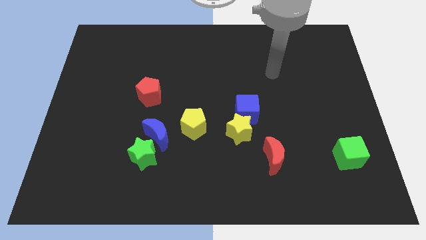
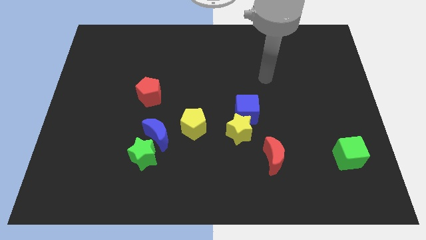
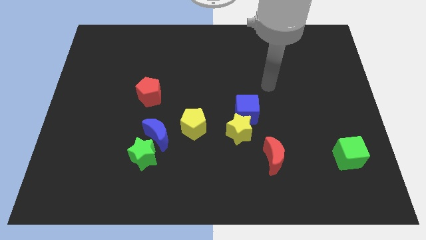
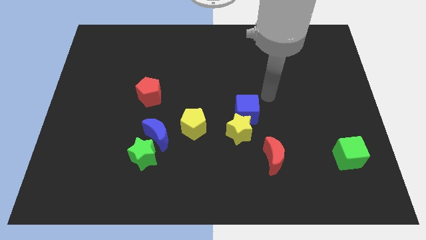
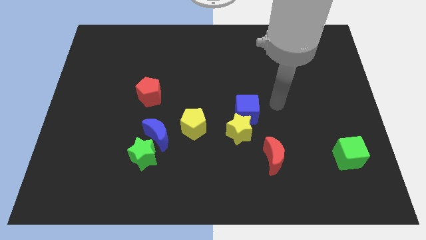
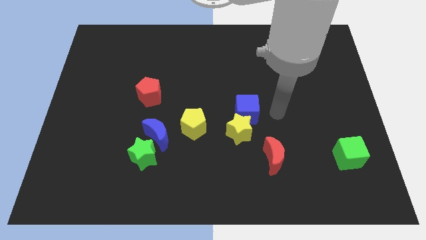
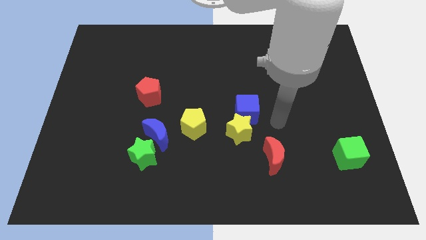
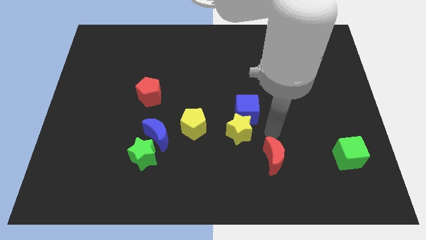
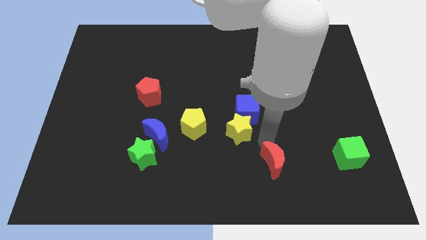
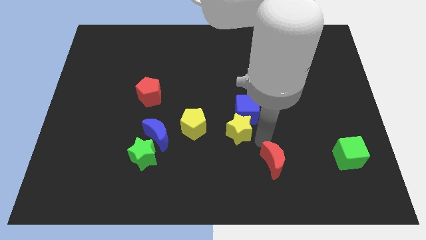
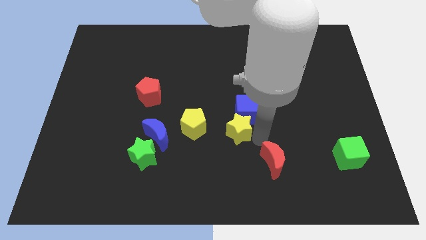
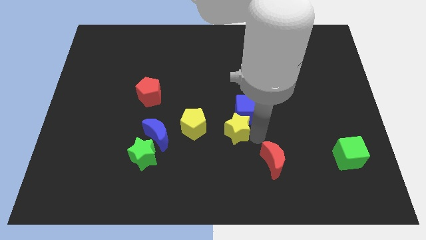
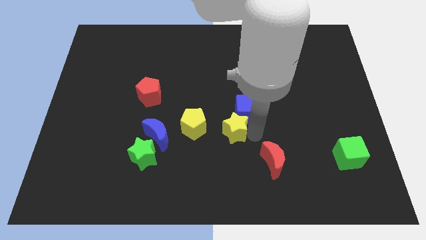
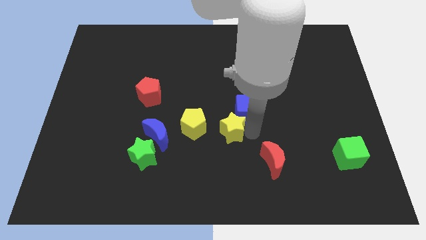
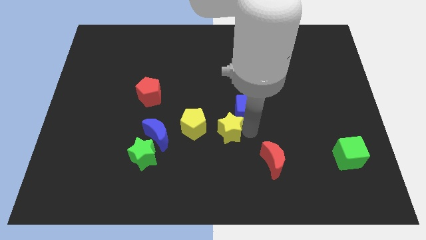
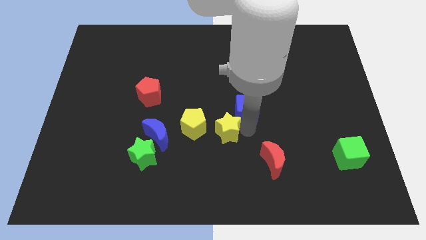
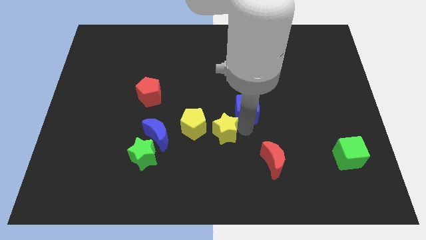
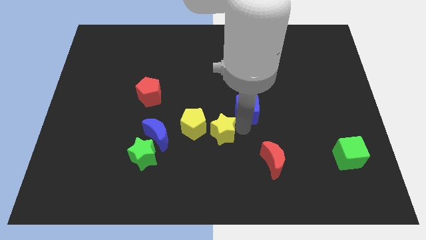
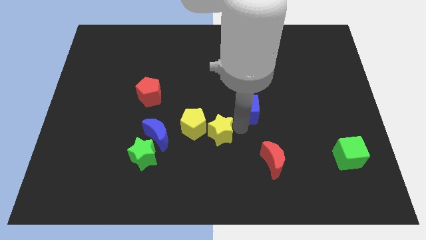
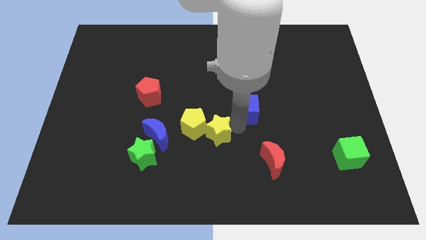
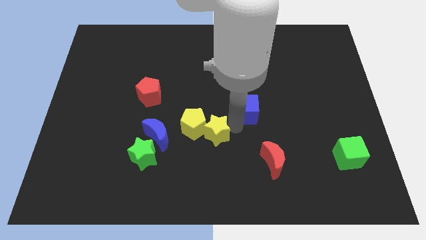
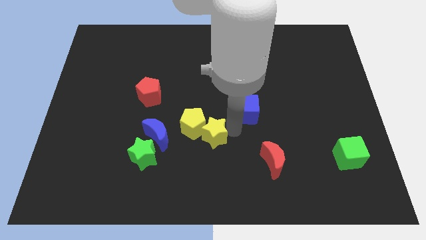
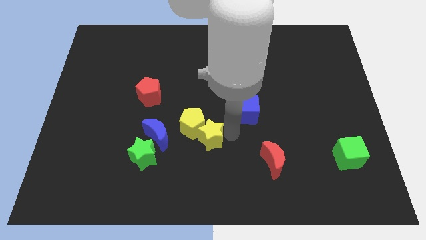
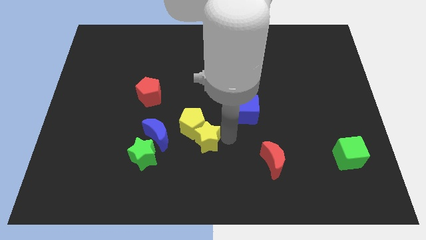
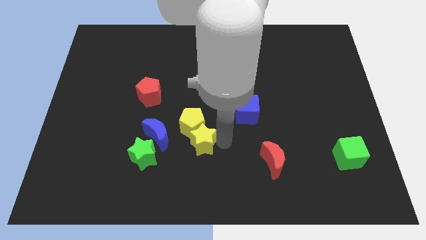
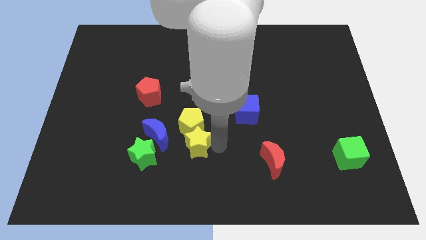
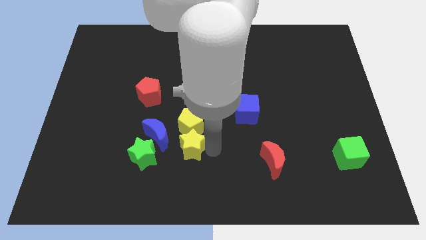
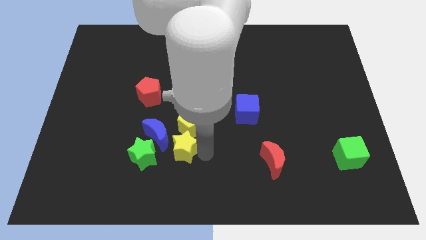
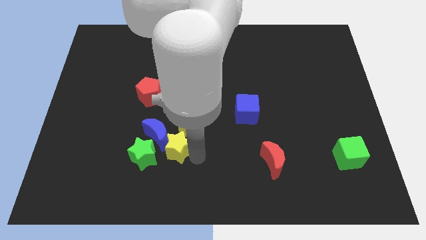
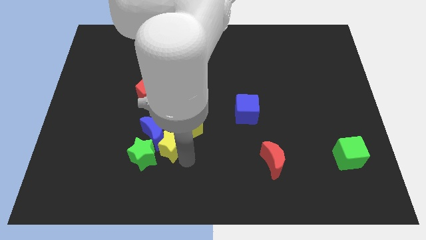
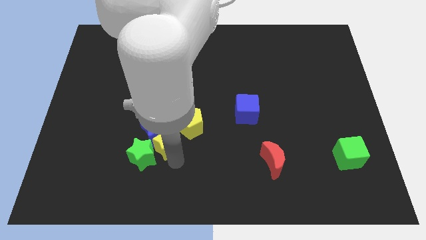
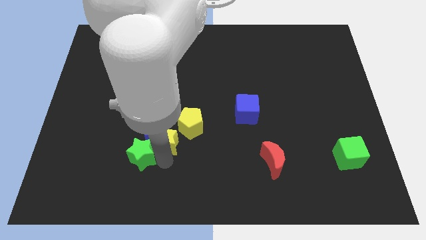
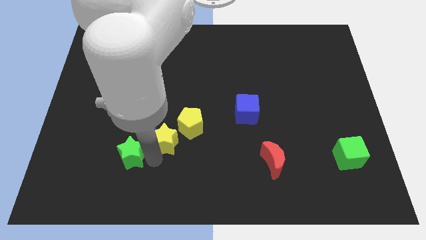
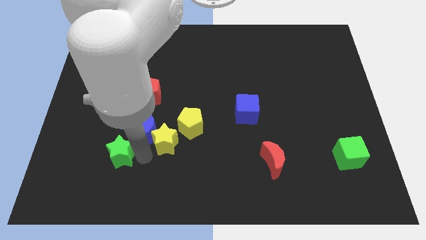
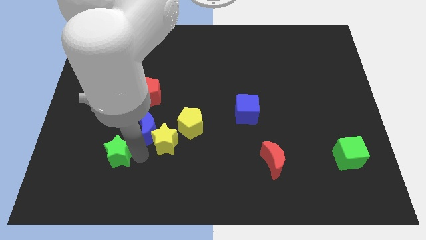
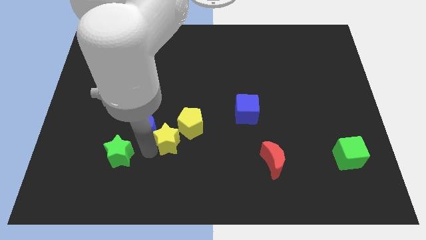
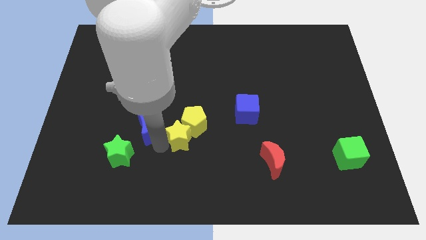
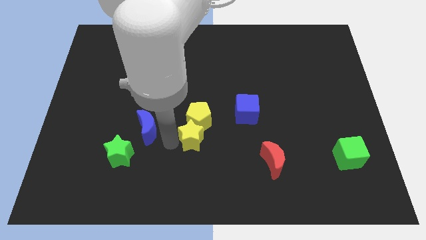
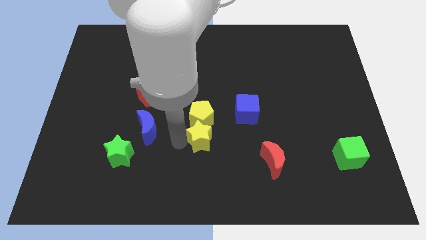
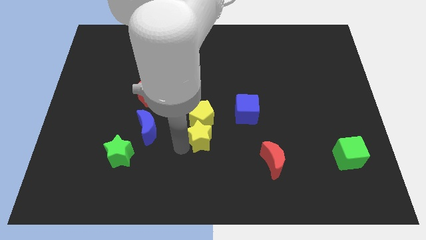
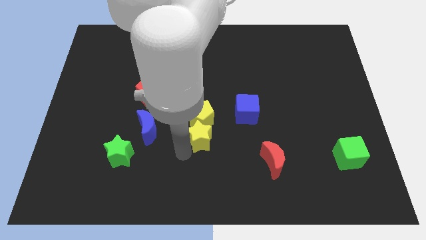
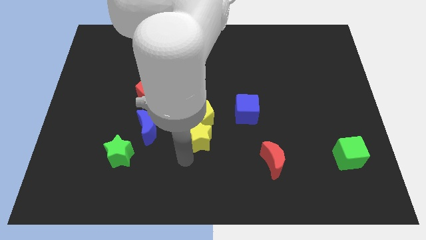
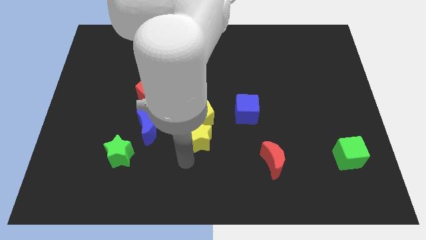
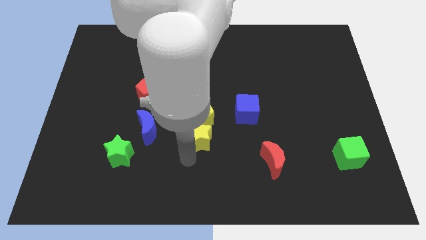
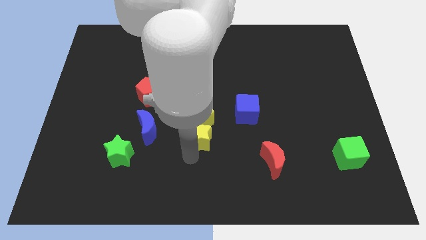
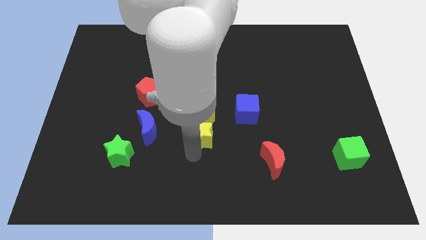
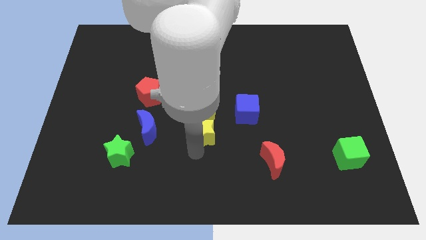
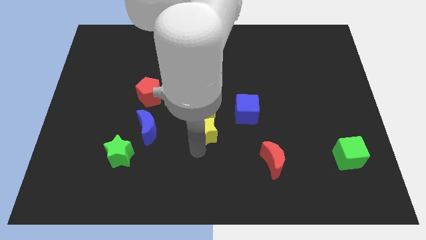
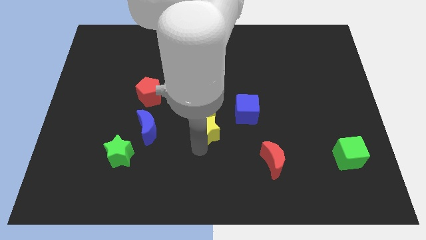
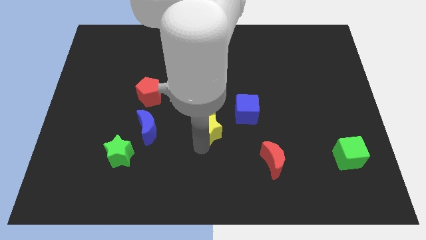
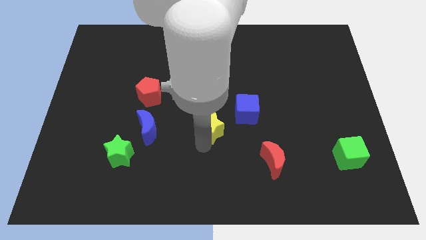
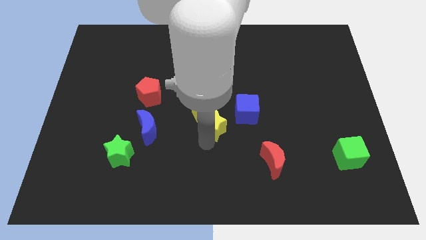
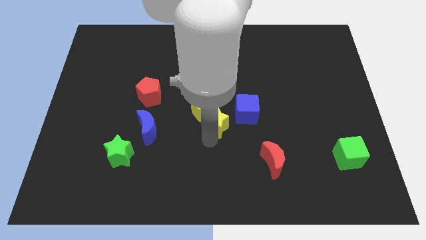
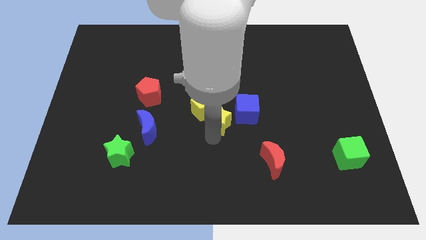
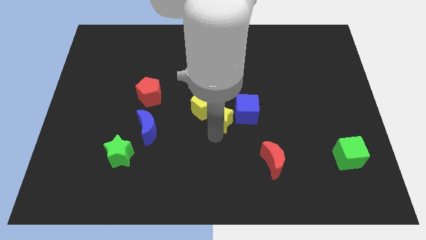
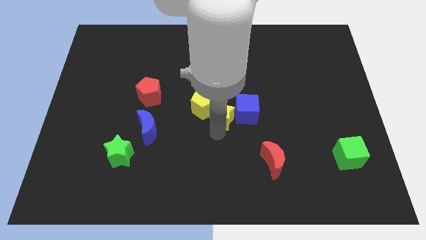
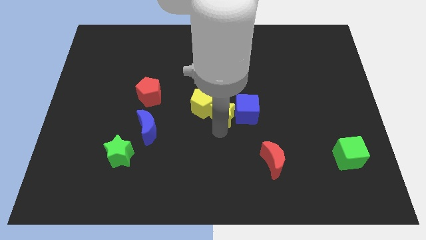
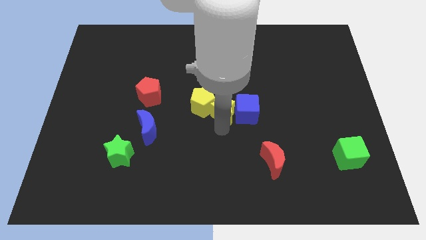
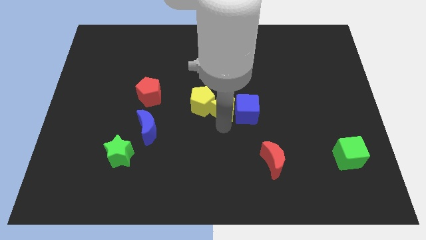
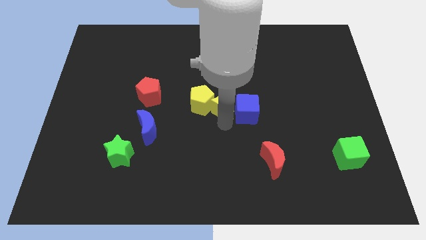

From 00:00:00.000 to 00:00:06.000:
slide the yellow star slightly diagonally up and left

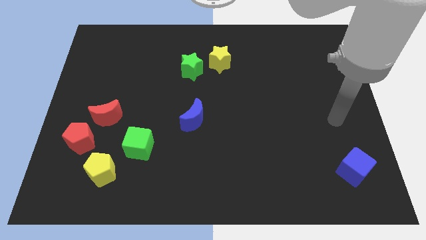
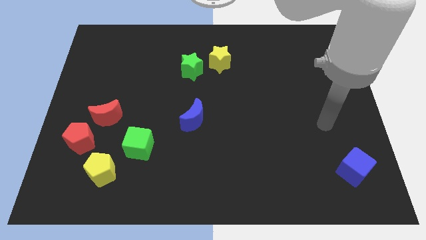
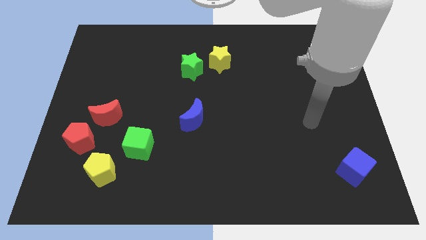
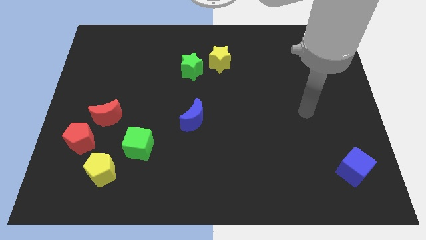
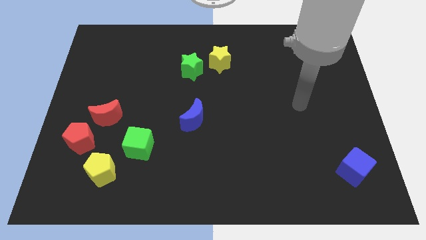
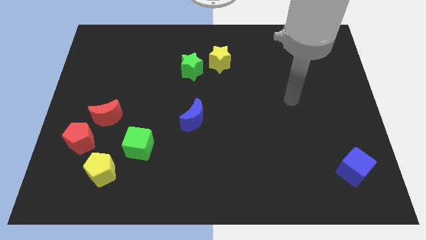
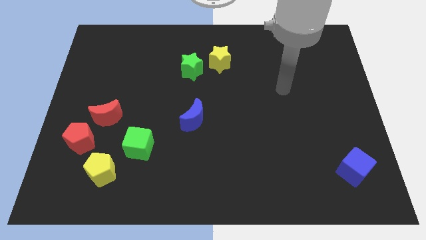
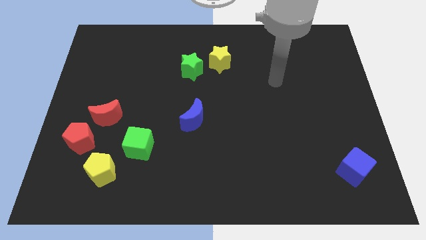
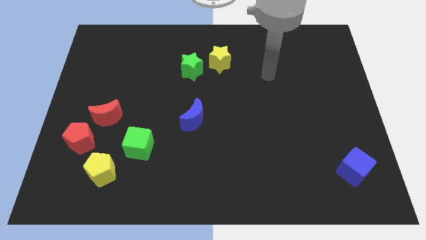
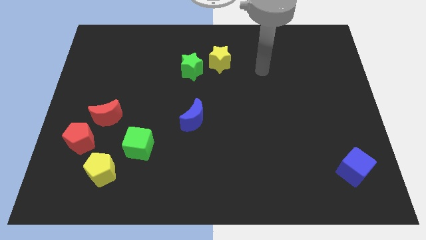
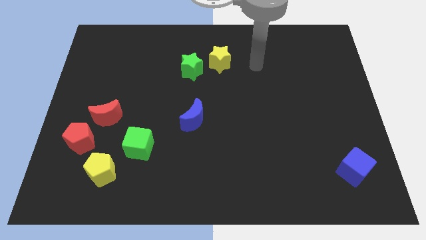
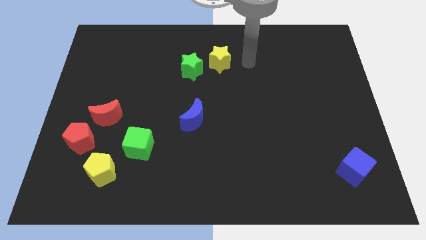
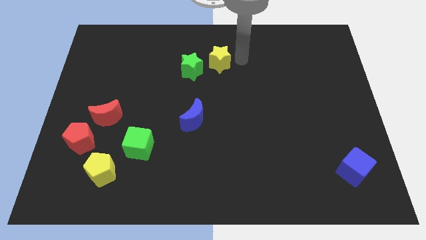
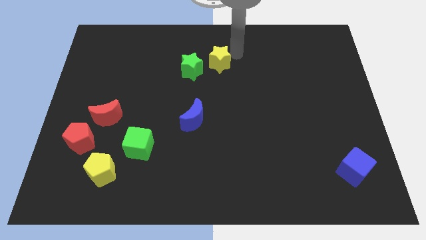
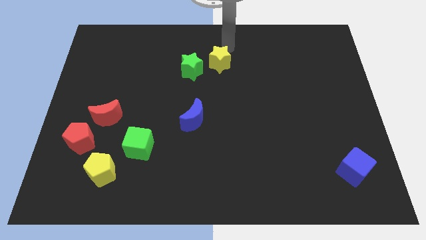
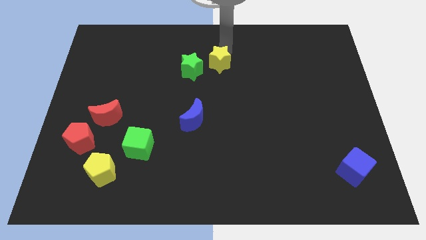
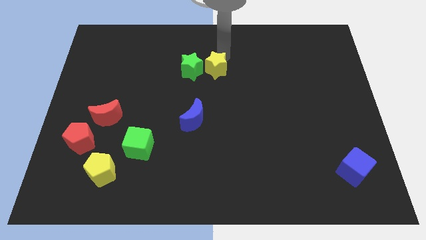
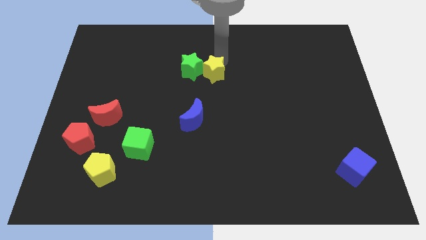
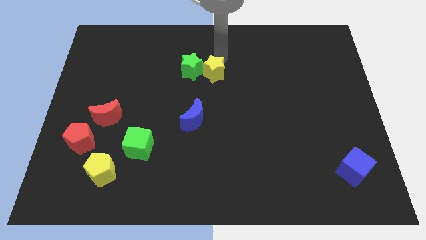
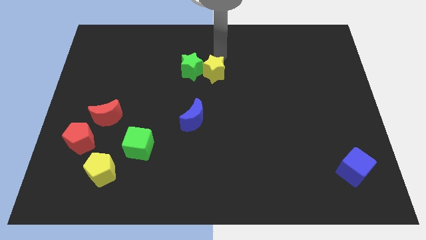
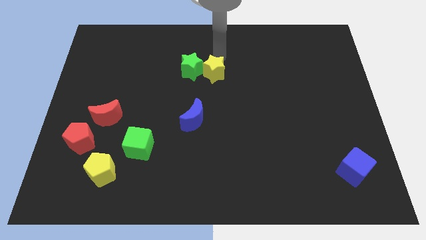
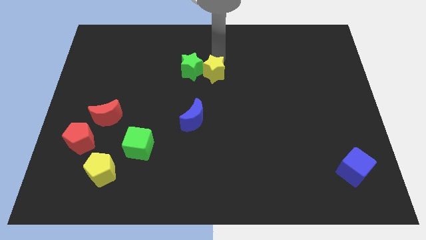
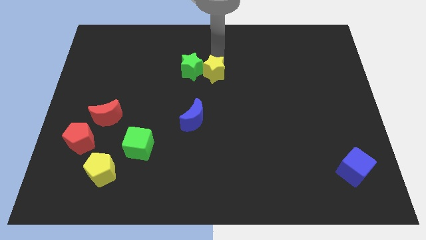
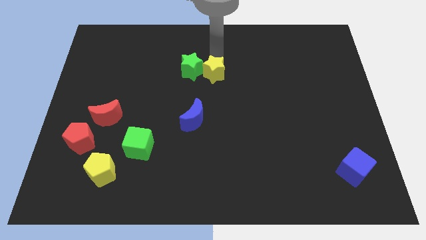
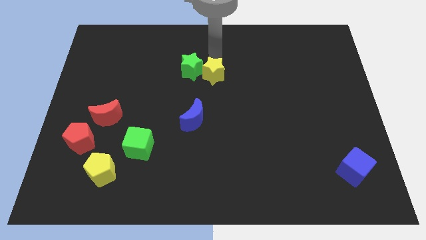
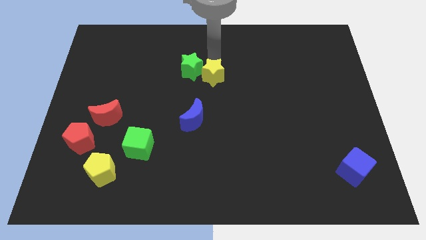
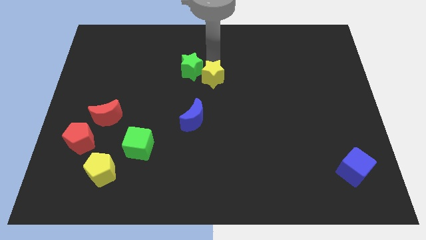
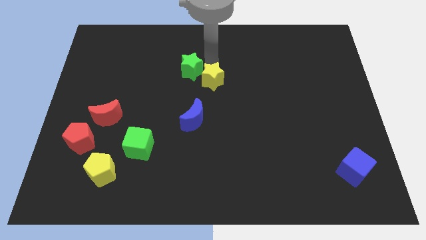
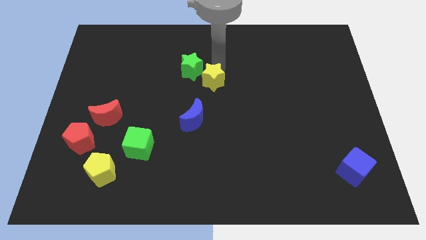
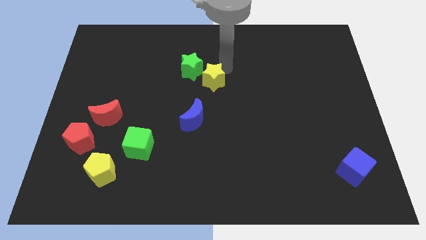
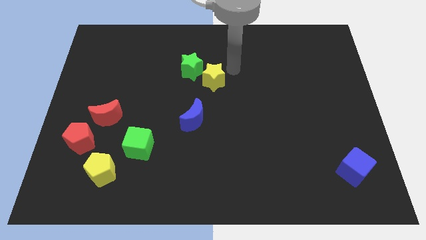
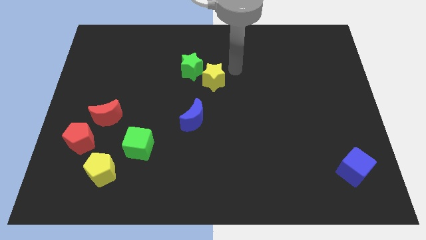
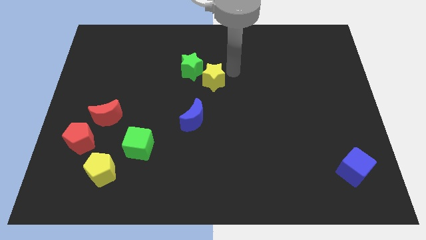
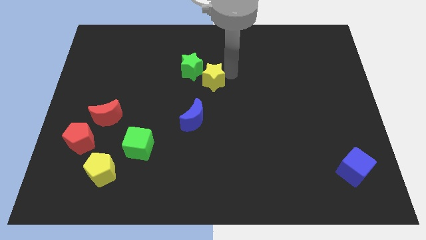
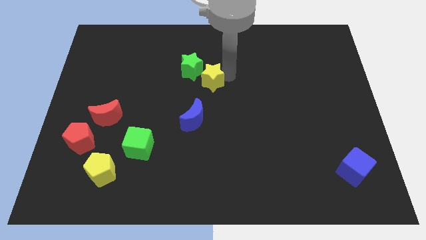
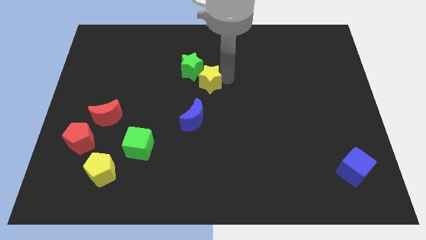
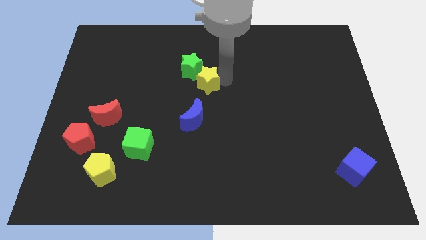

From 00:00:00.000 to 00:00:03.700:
push the yellow star downwards and left a bit
